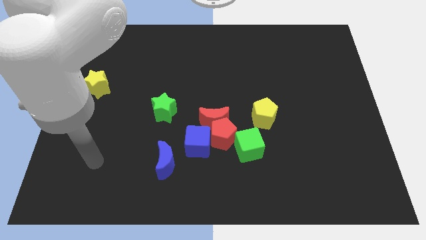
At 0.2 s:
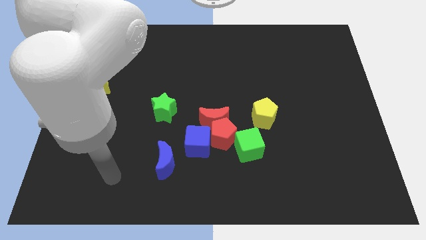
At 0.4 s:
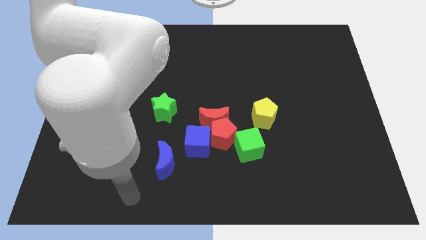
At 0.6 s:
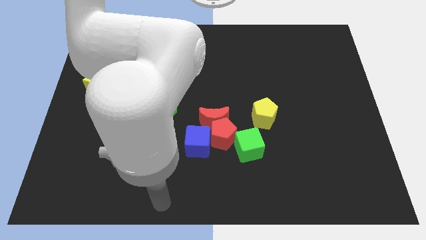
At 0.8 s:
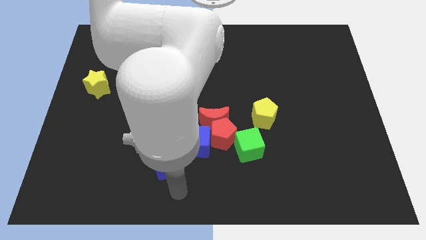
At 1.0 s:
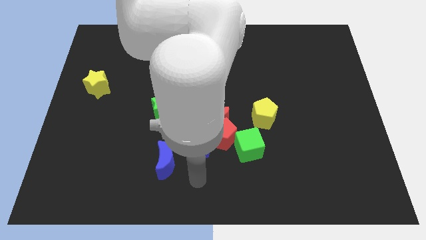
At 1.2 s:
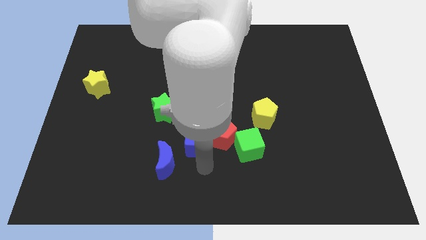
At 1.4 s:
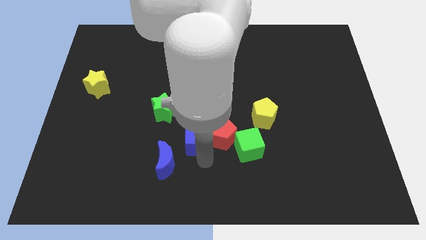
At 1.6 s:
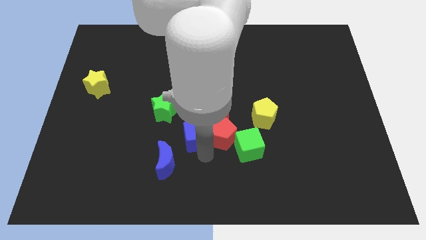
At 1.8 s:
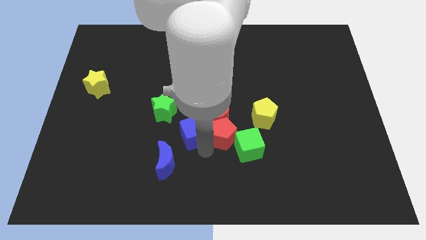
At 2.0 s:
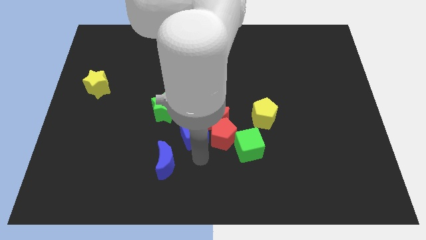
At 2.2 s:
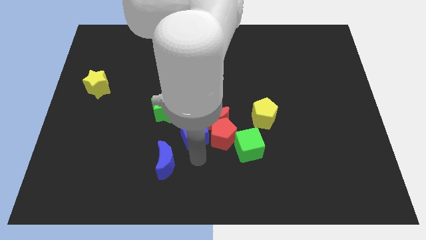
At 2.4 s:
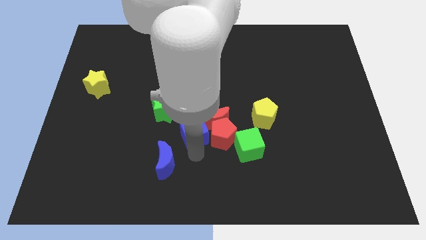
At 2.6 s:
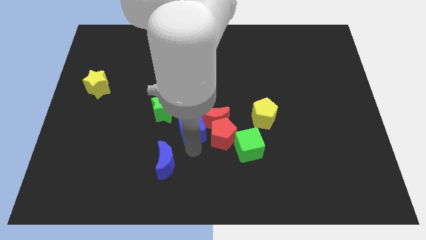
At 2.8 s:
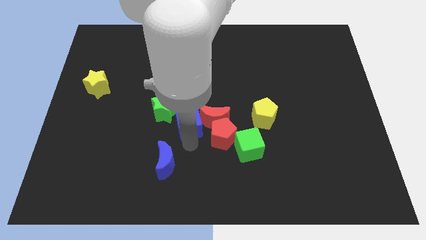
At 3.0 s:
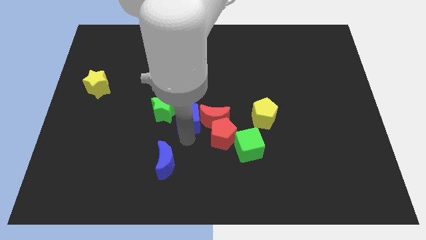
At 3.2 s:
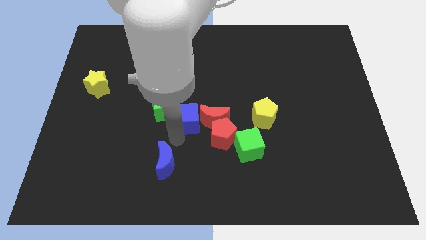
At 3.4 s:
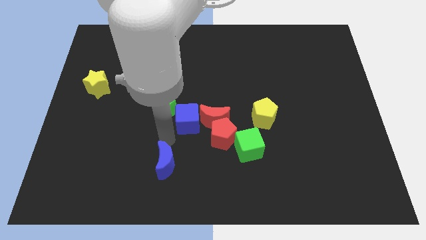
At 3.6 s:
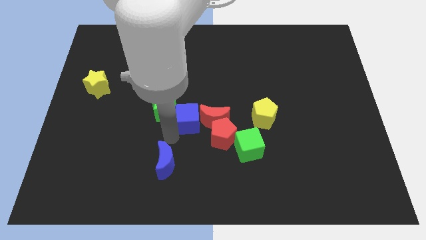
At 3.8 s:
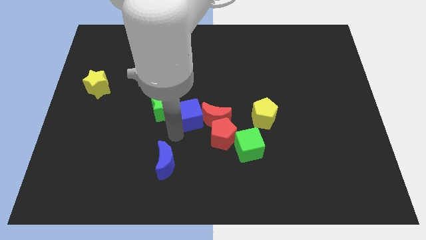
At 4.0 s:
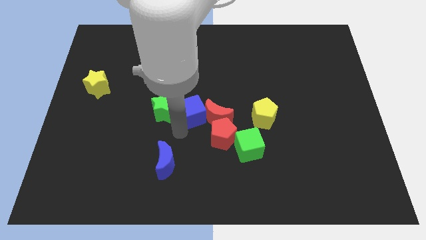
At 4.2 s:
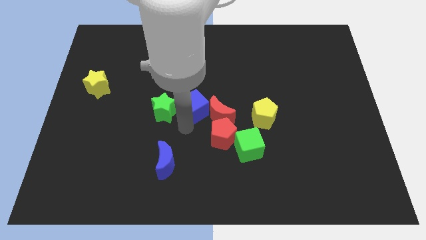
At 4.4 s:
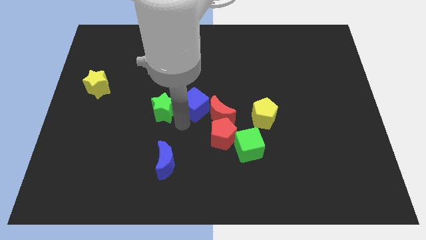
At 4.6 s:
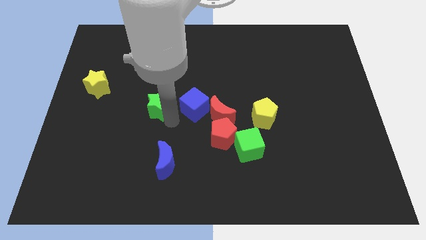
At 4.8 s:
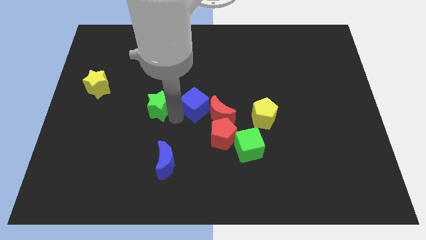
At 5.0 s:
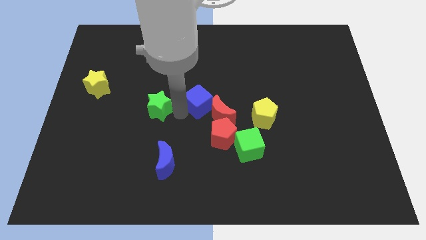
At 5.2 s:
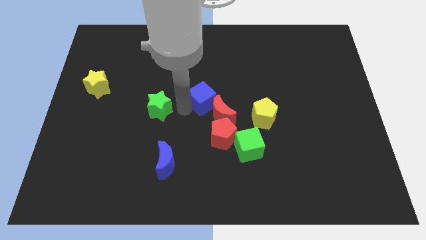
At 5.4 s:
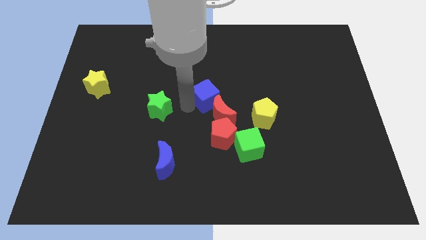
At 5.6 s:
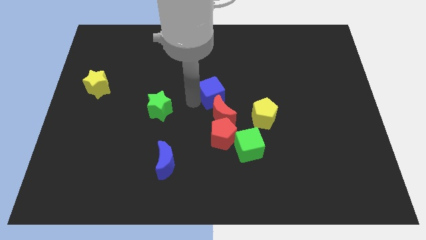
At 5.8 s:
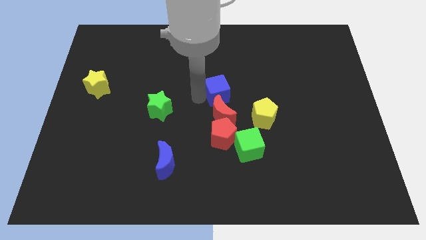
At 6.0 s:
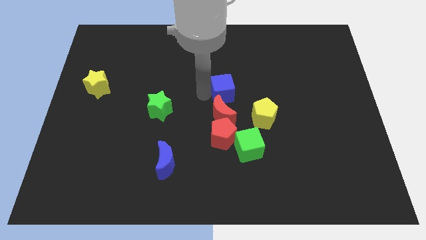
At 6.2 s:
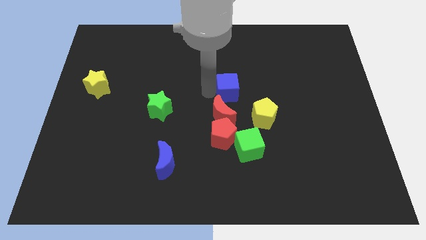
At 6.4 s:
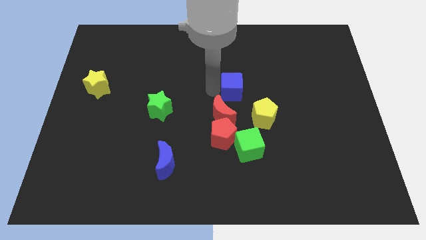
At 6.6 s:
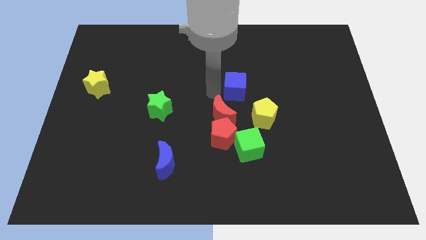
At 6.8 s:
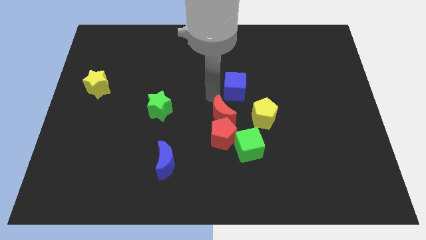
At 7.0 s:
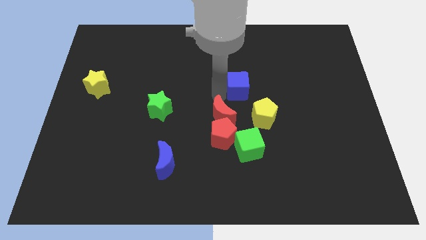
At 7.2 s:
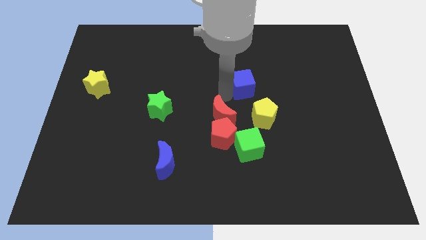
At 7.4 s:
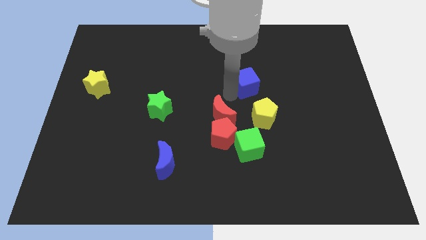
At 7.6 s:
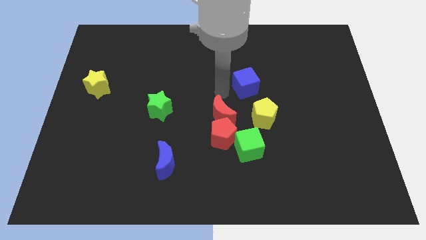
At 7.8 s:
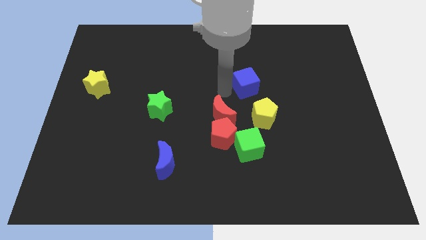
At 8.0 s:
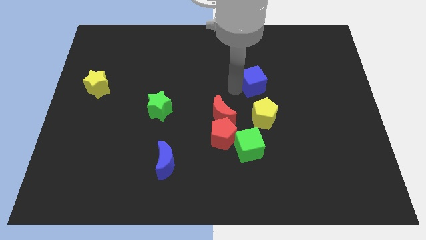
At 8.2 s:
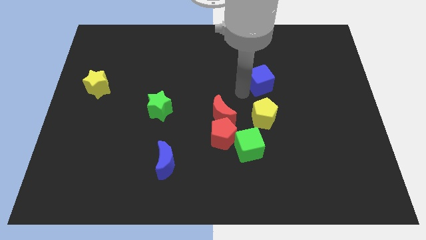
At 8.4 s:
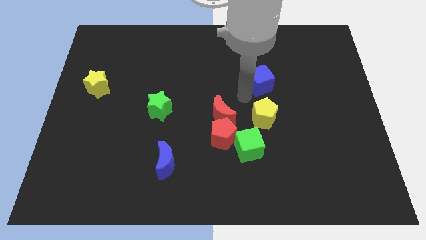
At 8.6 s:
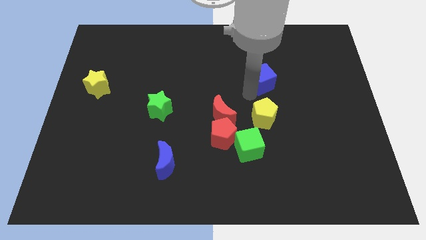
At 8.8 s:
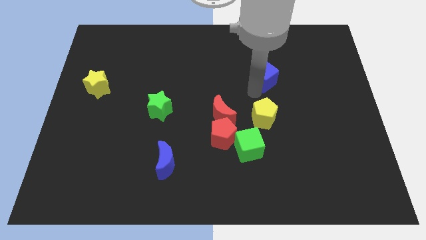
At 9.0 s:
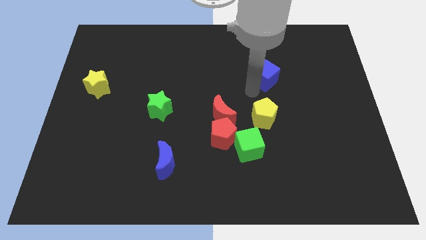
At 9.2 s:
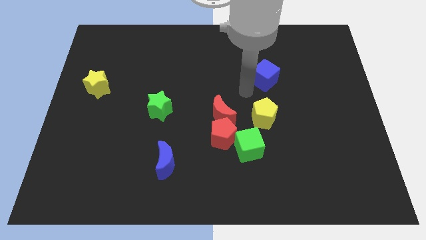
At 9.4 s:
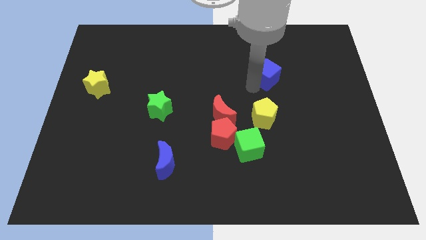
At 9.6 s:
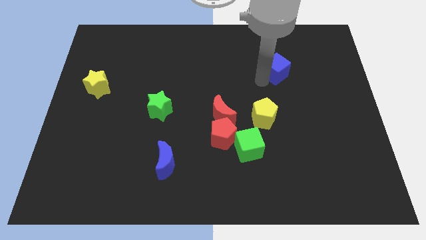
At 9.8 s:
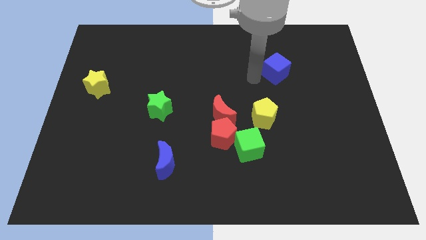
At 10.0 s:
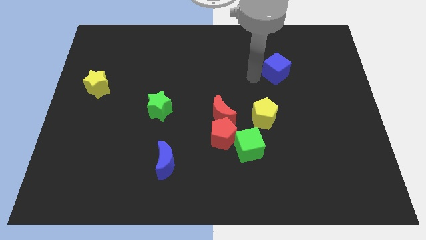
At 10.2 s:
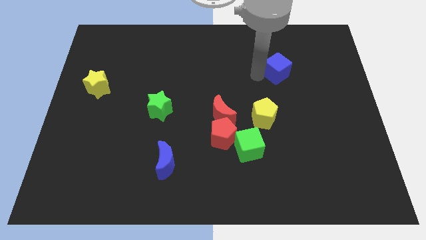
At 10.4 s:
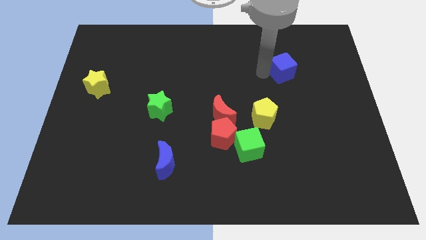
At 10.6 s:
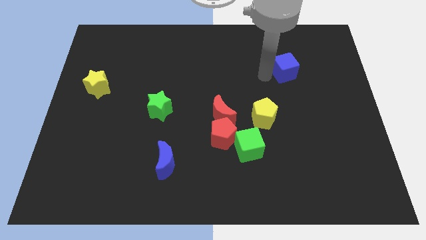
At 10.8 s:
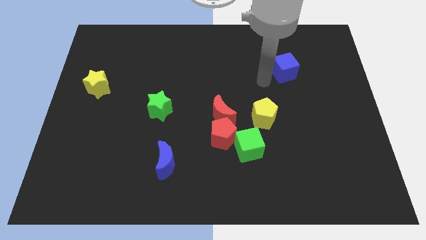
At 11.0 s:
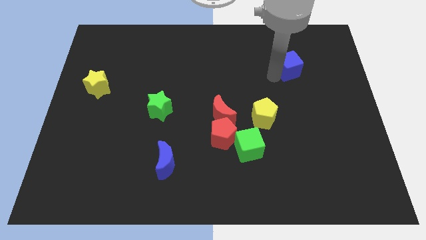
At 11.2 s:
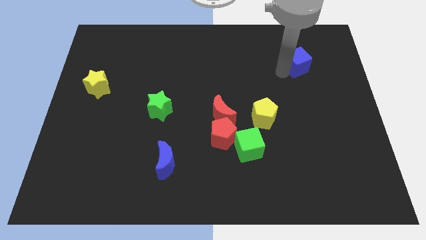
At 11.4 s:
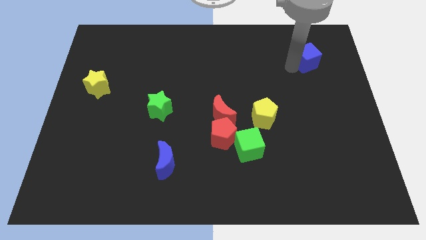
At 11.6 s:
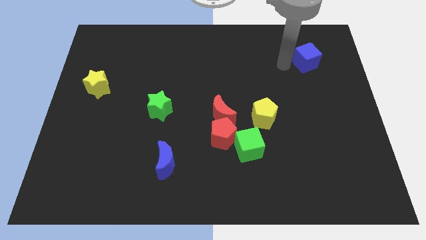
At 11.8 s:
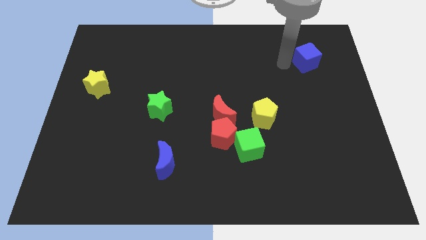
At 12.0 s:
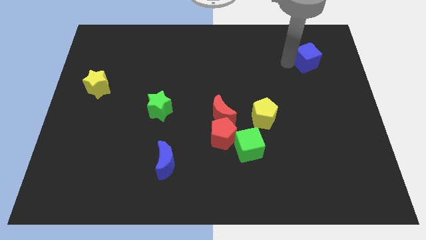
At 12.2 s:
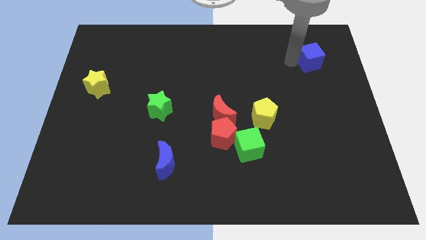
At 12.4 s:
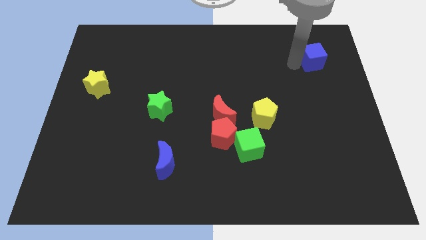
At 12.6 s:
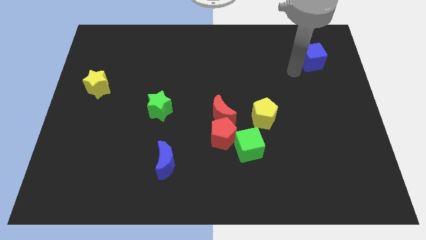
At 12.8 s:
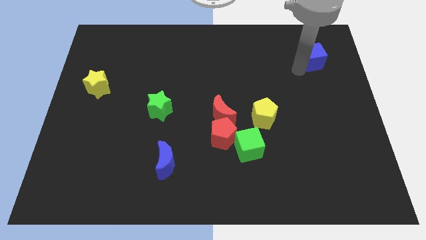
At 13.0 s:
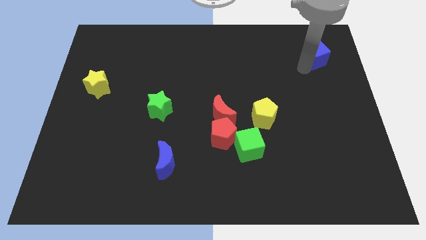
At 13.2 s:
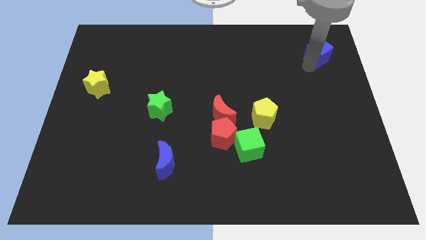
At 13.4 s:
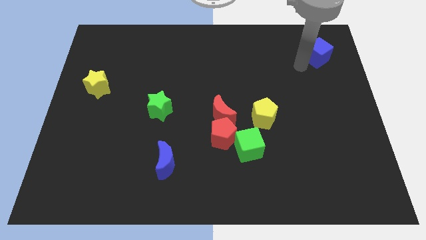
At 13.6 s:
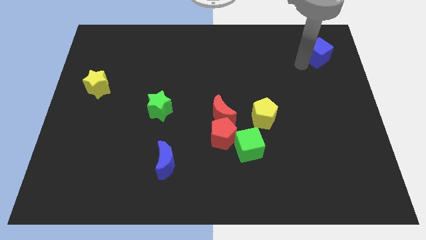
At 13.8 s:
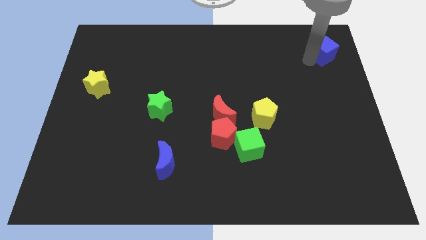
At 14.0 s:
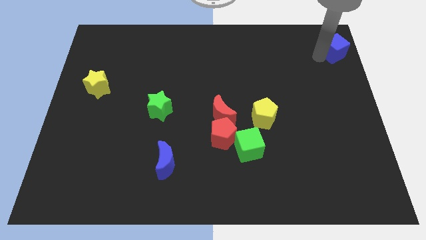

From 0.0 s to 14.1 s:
put the blue cube to the top right of the board
